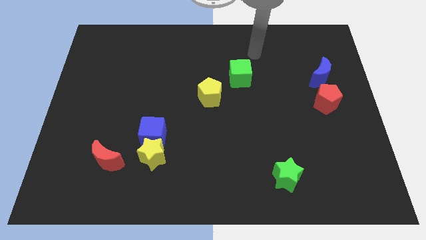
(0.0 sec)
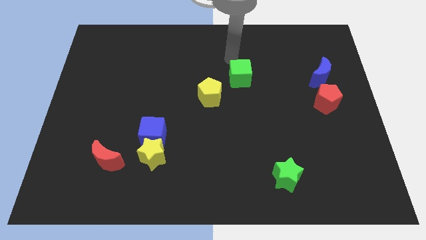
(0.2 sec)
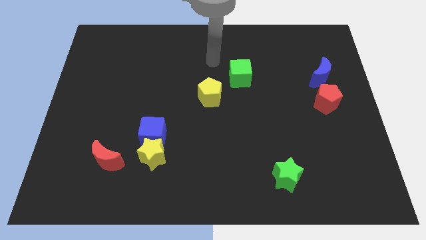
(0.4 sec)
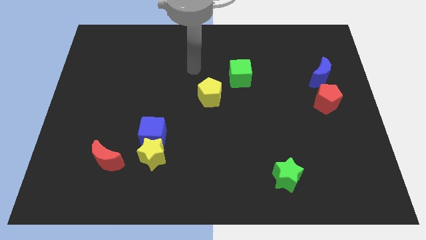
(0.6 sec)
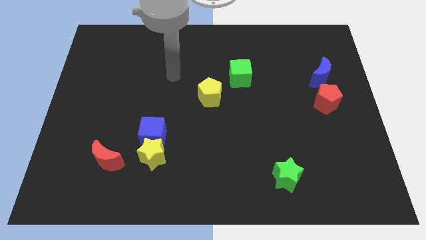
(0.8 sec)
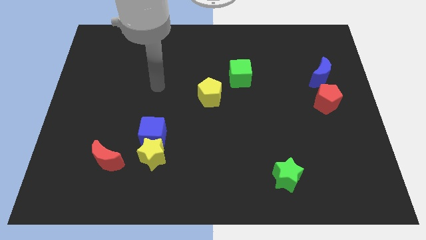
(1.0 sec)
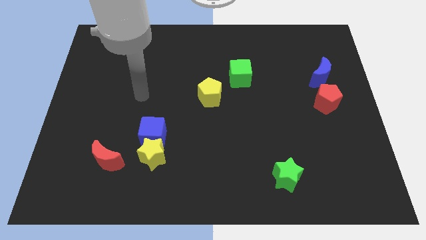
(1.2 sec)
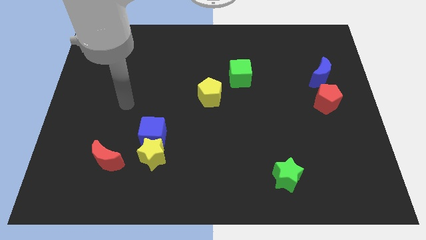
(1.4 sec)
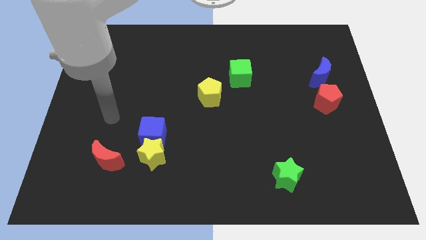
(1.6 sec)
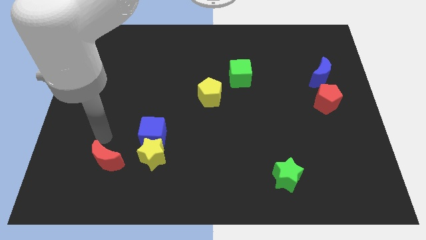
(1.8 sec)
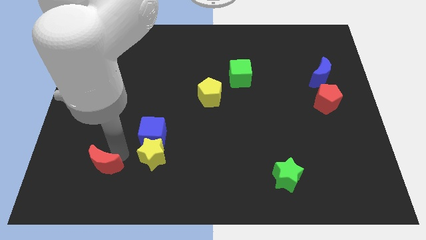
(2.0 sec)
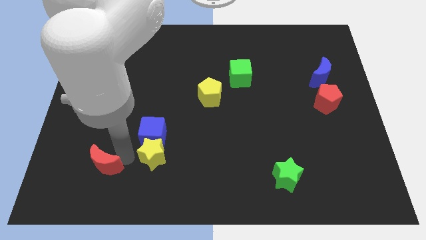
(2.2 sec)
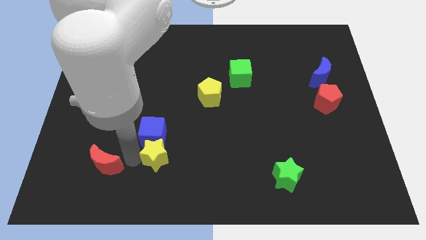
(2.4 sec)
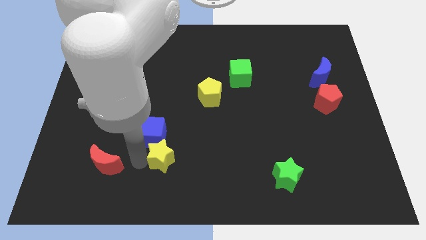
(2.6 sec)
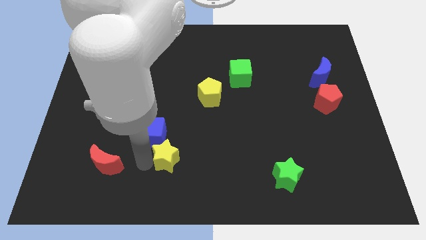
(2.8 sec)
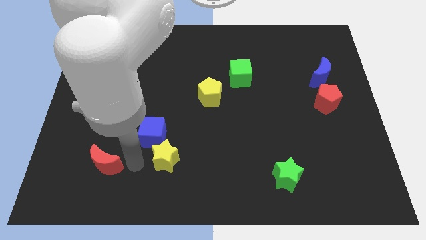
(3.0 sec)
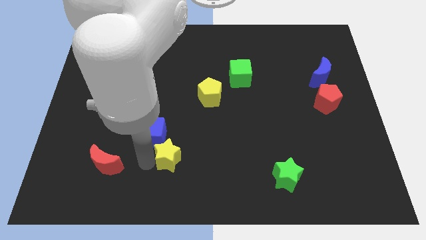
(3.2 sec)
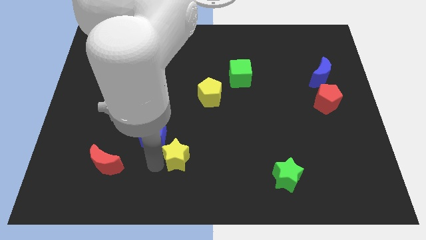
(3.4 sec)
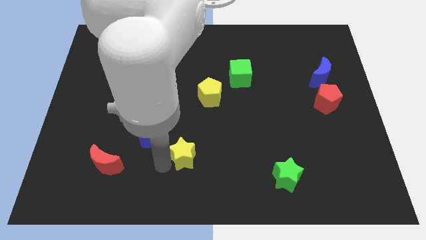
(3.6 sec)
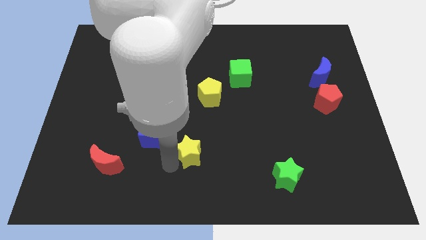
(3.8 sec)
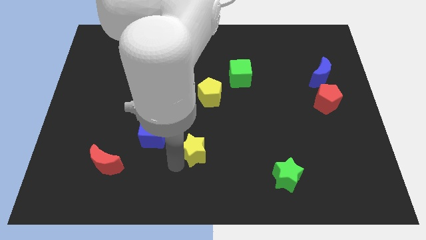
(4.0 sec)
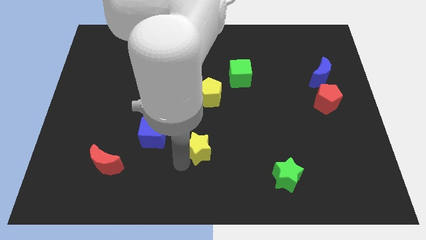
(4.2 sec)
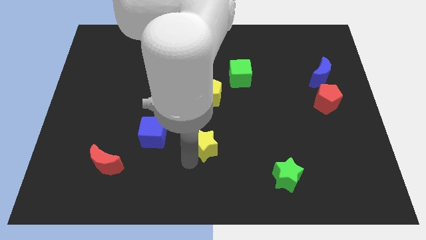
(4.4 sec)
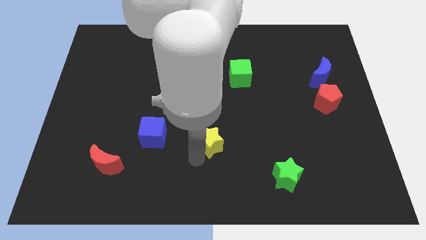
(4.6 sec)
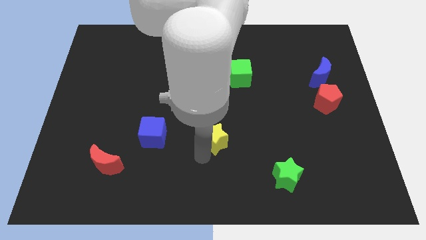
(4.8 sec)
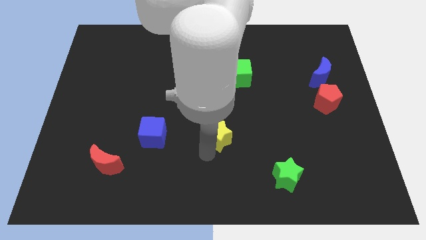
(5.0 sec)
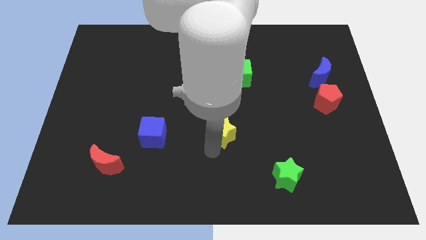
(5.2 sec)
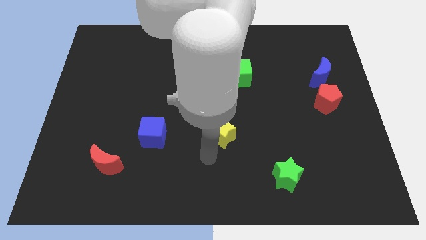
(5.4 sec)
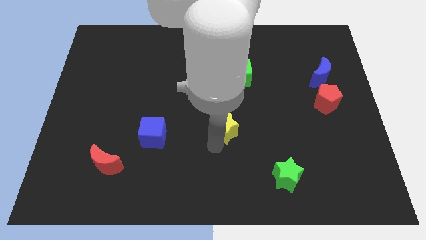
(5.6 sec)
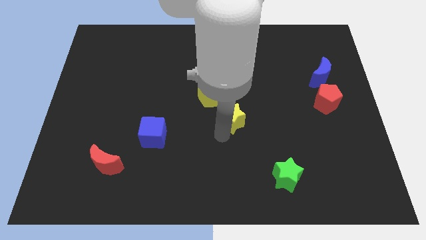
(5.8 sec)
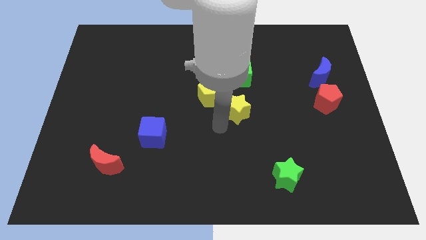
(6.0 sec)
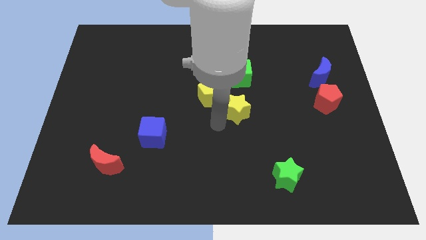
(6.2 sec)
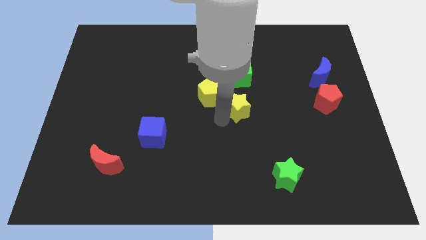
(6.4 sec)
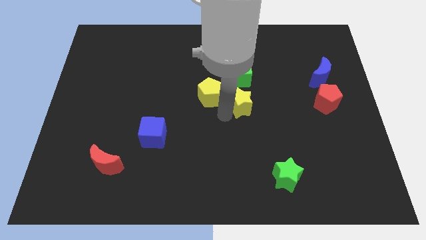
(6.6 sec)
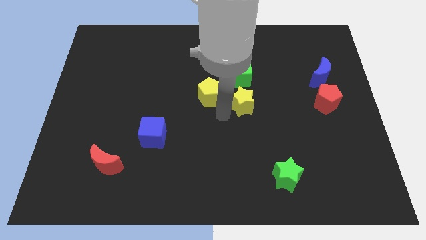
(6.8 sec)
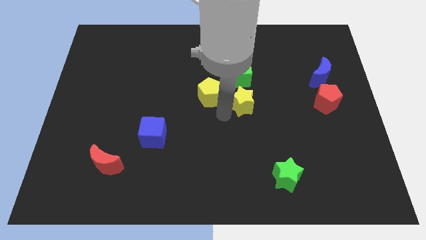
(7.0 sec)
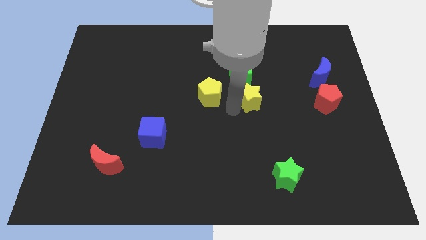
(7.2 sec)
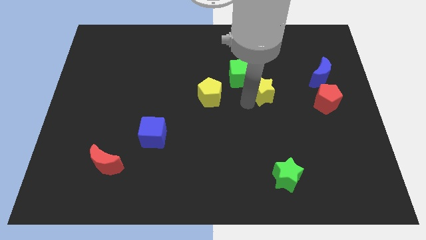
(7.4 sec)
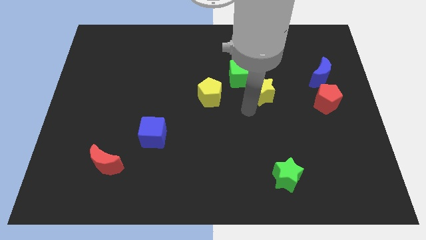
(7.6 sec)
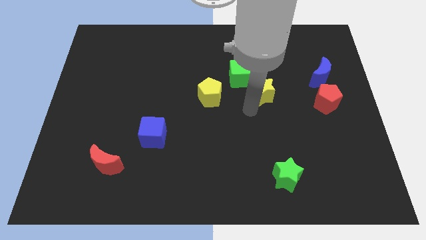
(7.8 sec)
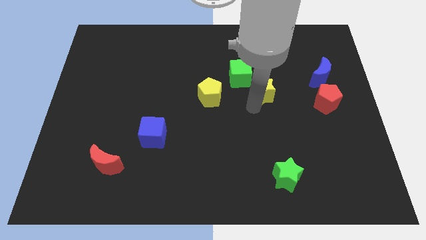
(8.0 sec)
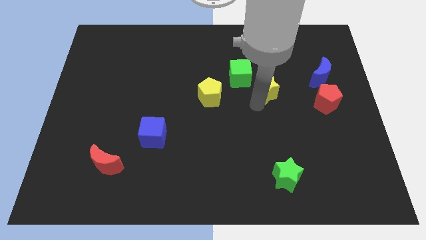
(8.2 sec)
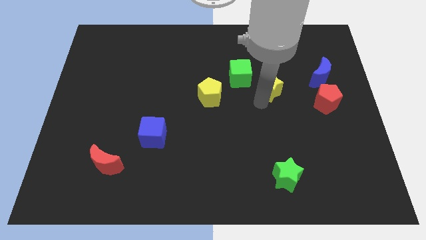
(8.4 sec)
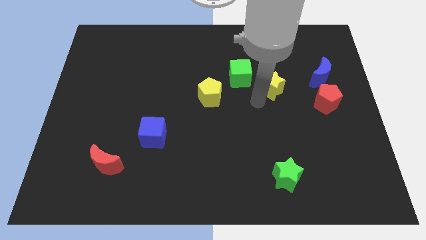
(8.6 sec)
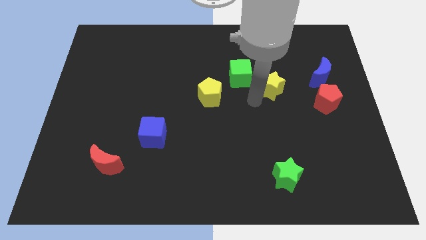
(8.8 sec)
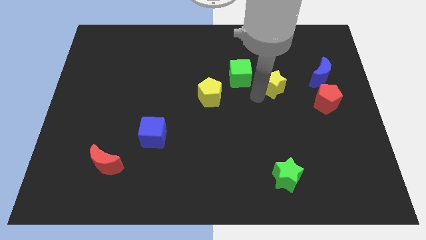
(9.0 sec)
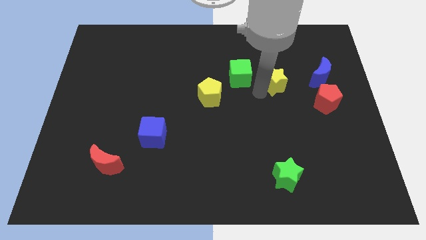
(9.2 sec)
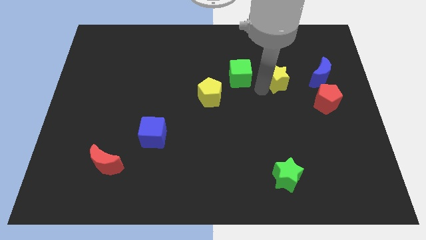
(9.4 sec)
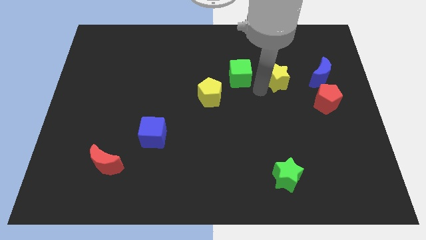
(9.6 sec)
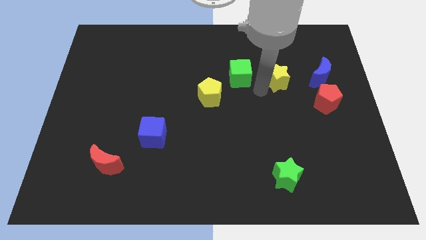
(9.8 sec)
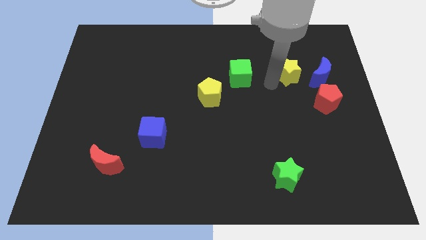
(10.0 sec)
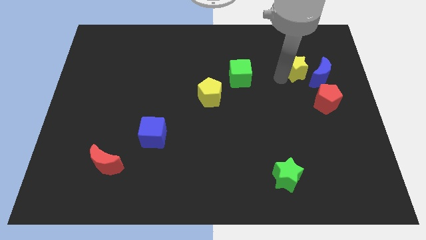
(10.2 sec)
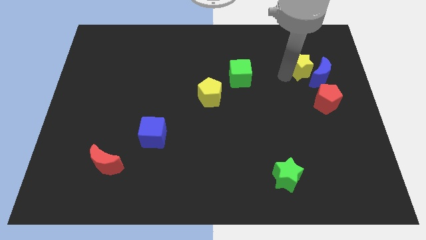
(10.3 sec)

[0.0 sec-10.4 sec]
push the yellow star above the red pentagon

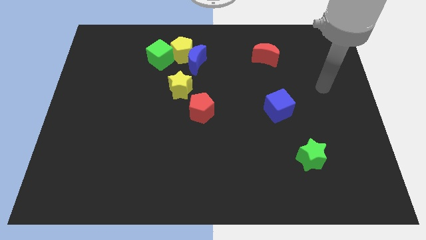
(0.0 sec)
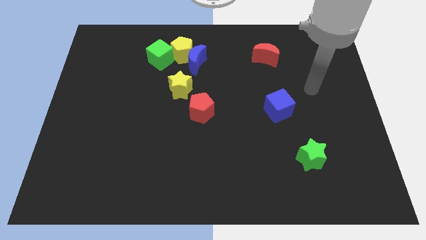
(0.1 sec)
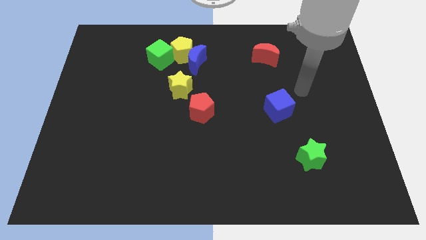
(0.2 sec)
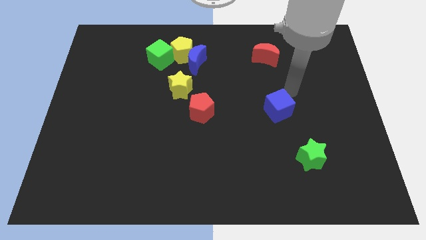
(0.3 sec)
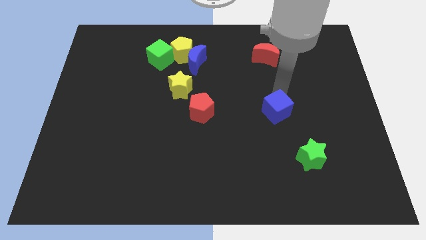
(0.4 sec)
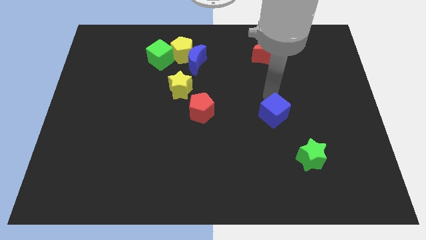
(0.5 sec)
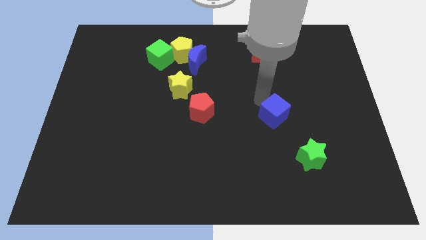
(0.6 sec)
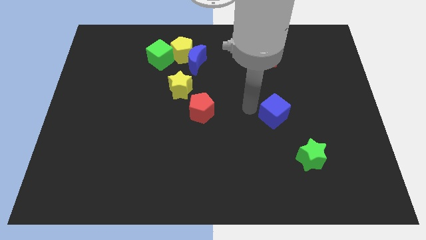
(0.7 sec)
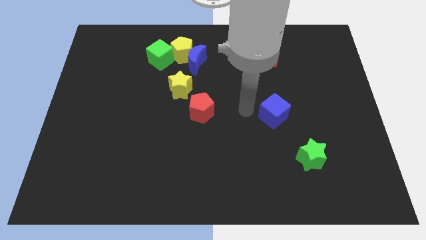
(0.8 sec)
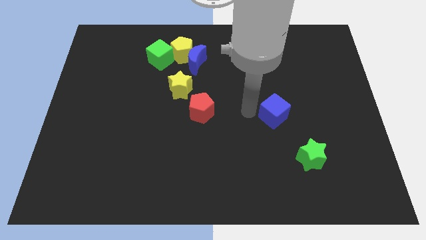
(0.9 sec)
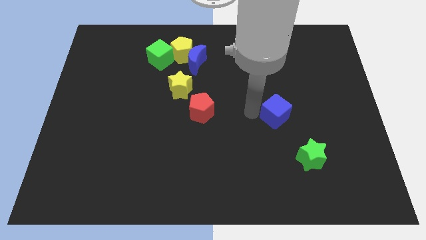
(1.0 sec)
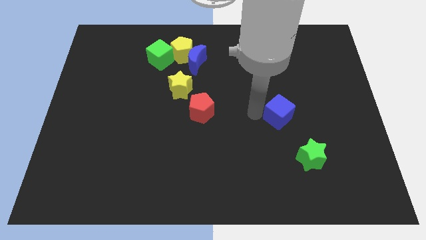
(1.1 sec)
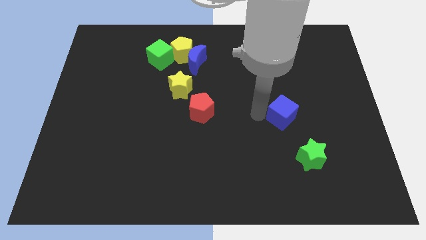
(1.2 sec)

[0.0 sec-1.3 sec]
move the blue cube to the top side of the green star
